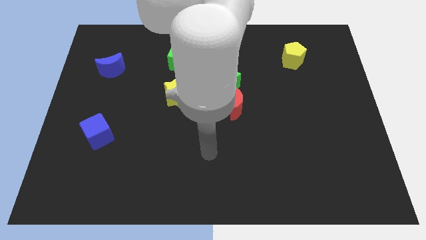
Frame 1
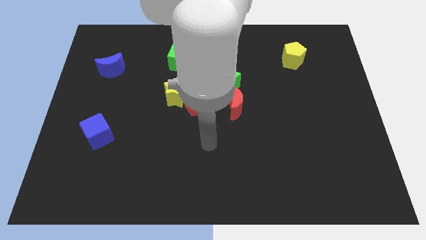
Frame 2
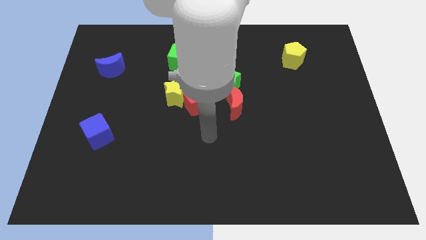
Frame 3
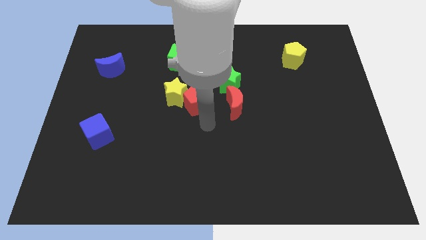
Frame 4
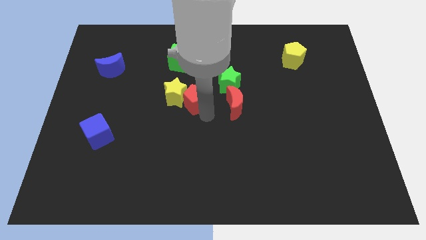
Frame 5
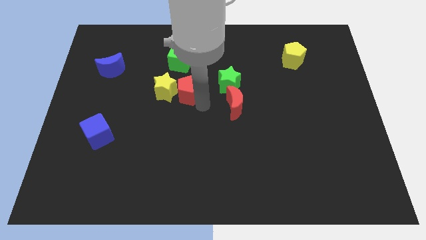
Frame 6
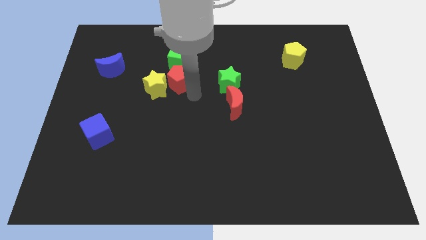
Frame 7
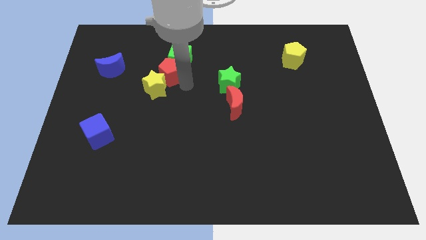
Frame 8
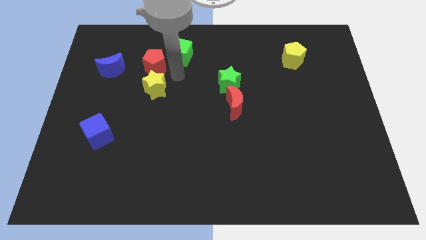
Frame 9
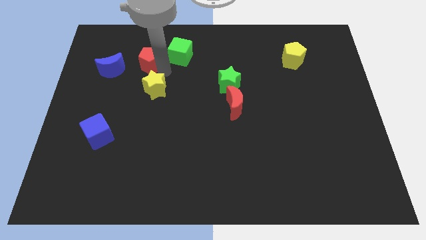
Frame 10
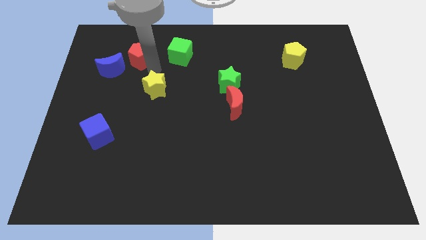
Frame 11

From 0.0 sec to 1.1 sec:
move the yellow star away from the red pentagon

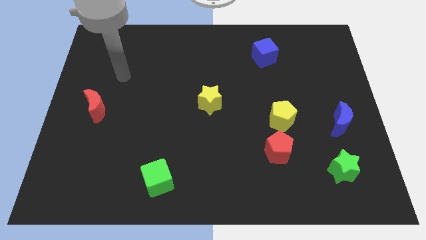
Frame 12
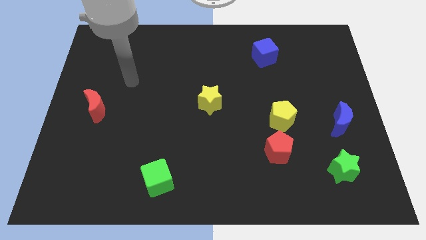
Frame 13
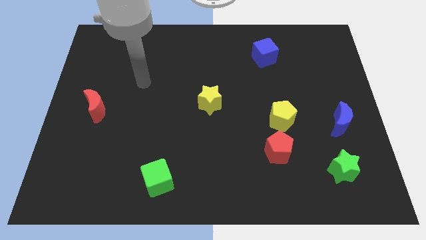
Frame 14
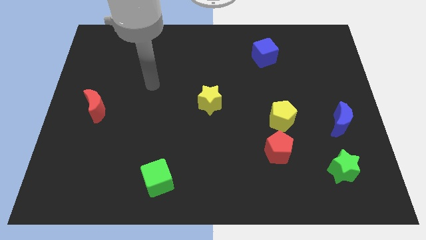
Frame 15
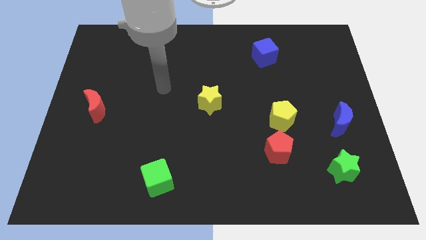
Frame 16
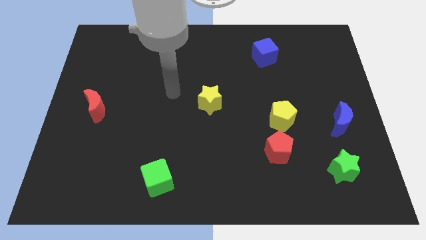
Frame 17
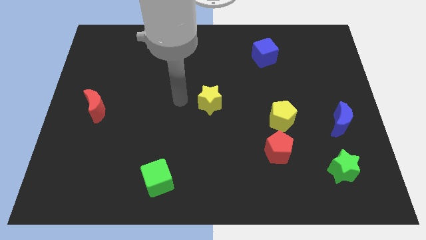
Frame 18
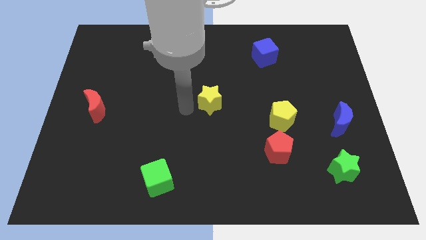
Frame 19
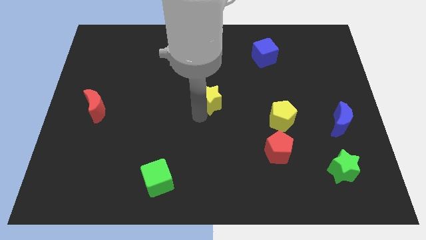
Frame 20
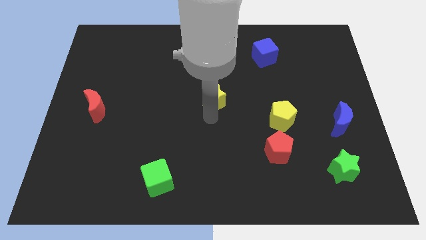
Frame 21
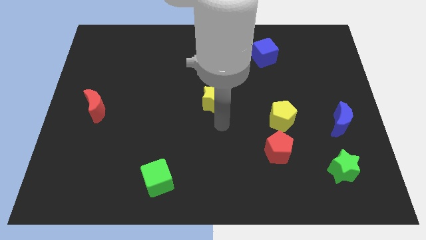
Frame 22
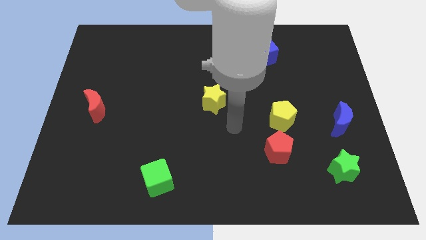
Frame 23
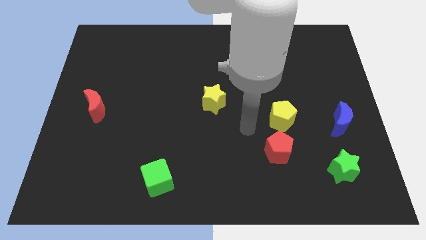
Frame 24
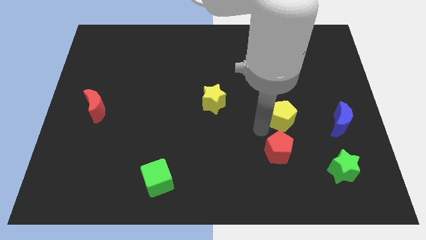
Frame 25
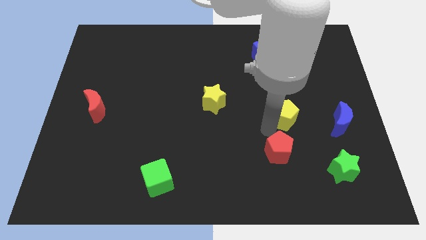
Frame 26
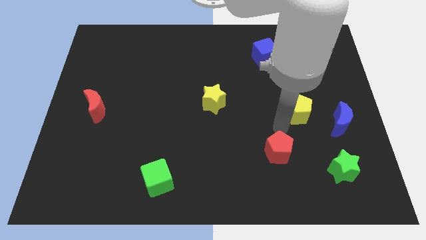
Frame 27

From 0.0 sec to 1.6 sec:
move the red pentagon away from the yellow pentagon

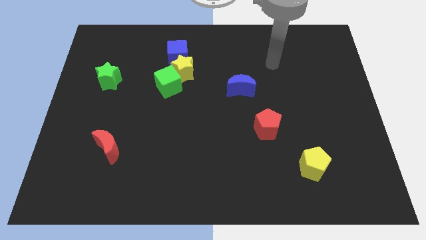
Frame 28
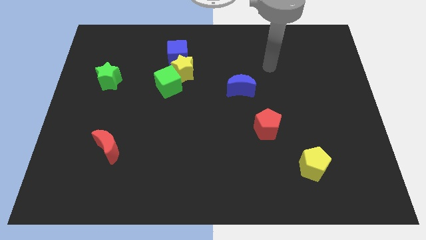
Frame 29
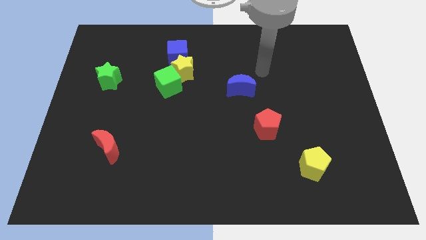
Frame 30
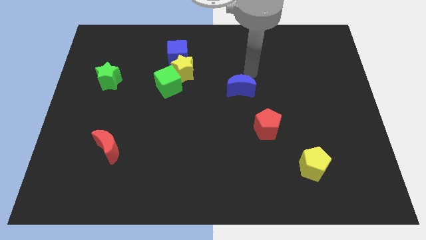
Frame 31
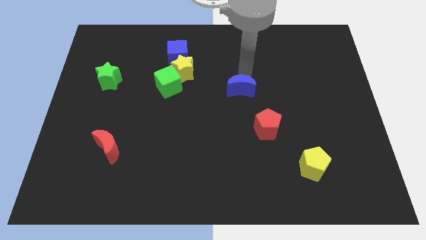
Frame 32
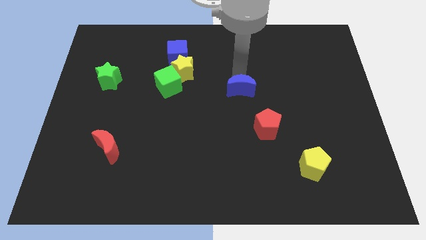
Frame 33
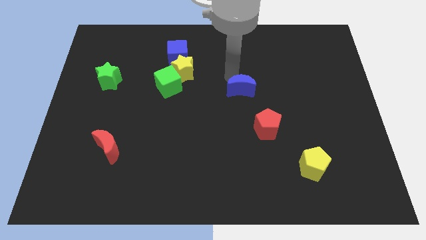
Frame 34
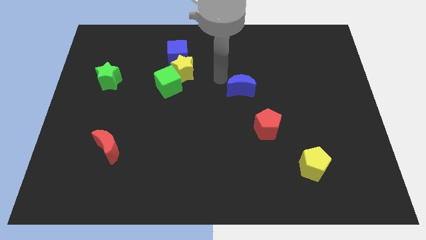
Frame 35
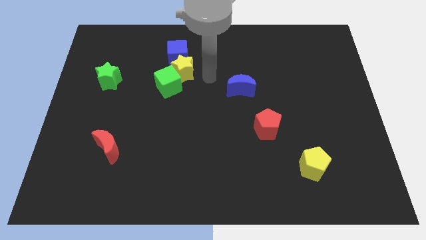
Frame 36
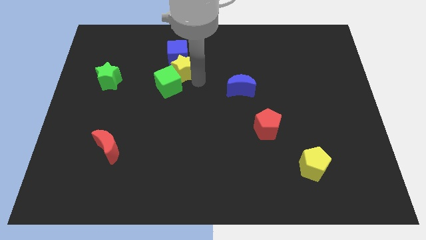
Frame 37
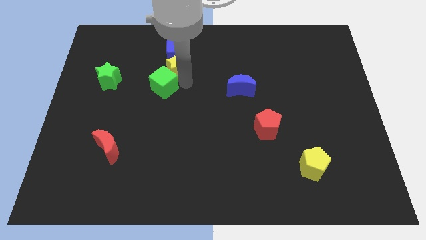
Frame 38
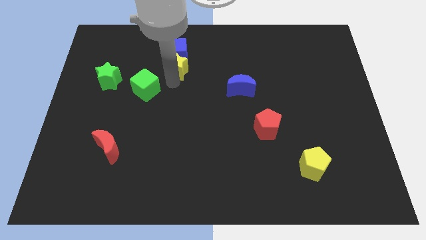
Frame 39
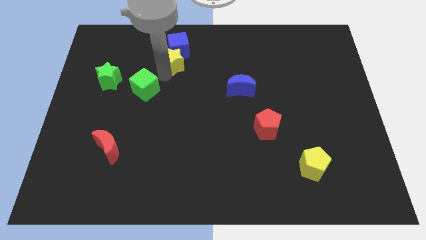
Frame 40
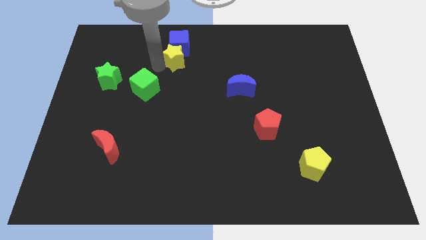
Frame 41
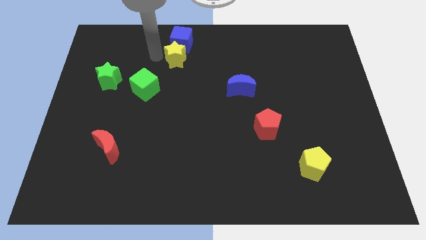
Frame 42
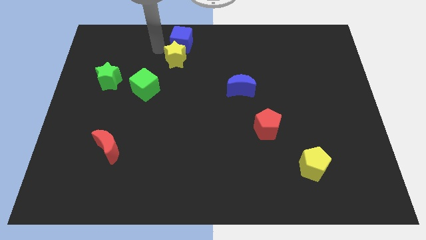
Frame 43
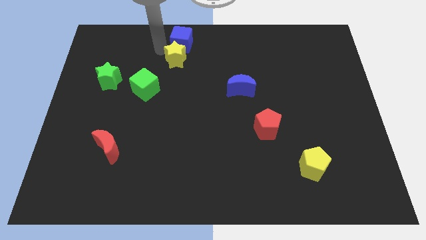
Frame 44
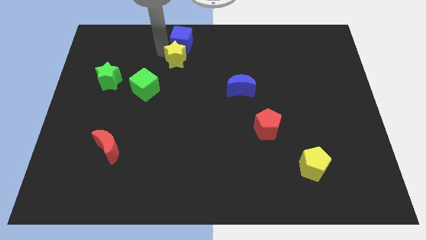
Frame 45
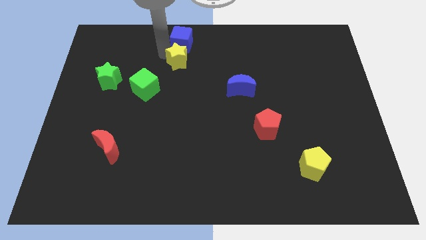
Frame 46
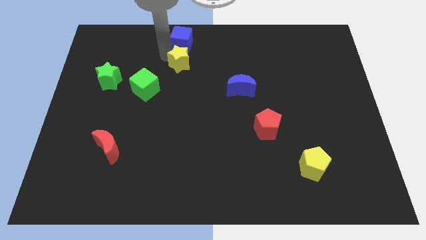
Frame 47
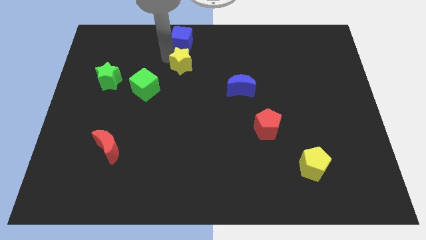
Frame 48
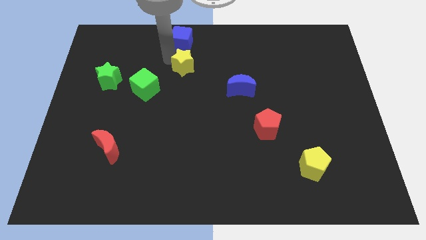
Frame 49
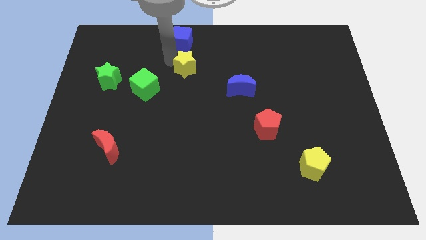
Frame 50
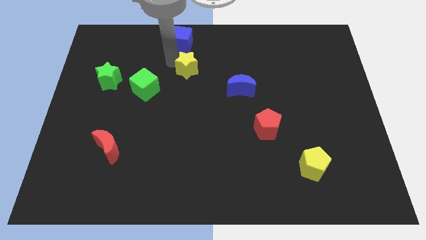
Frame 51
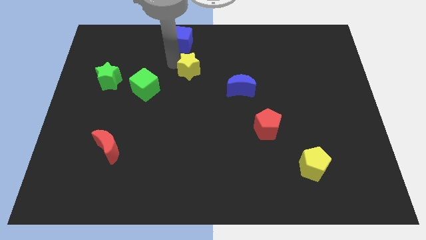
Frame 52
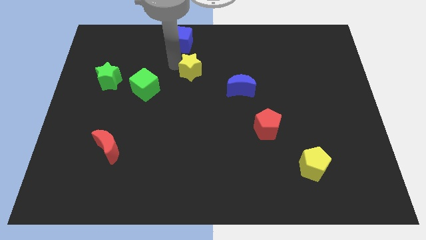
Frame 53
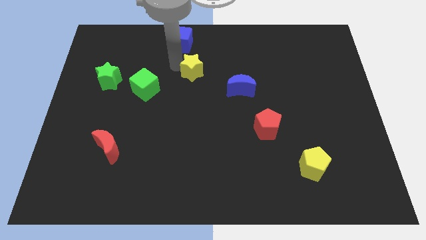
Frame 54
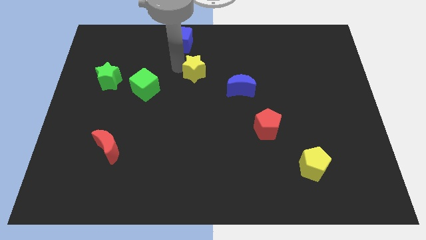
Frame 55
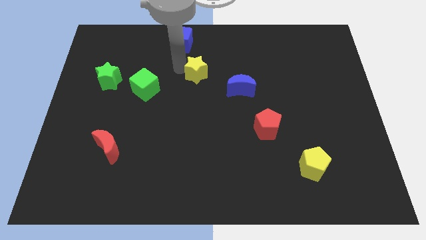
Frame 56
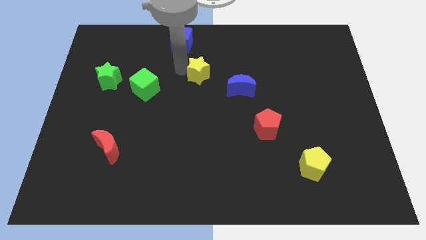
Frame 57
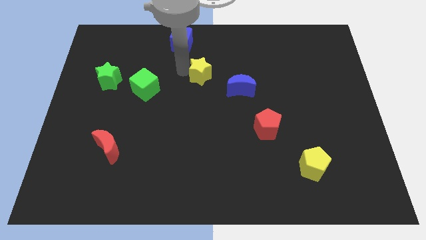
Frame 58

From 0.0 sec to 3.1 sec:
pull the yellow star apart from the blue cube and green cube

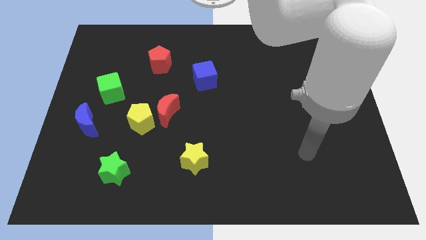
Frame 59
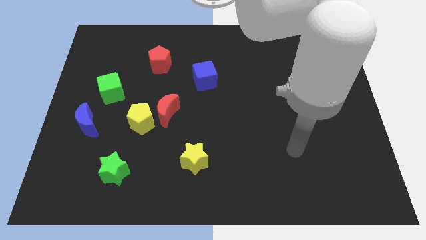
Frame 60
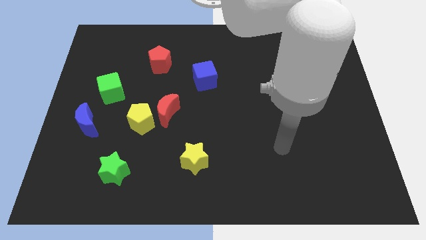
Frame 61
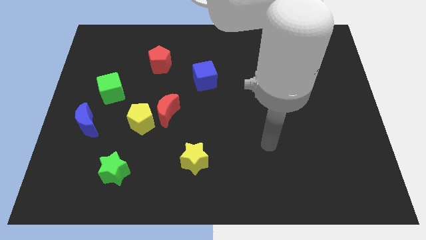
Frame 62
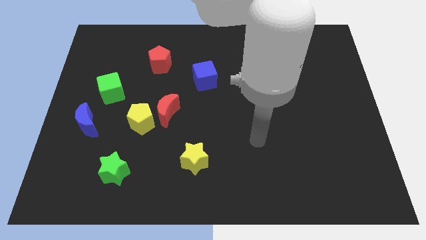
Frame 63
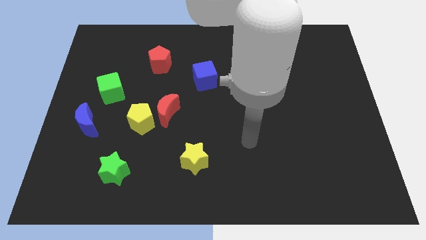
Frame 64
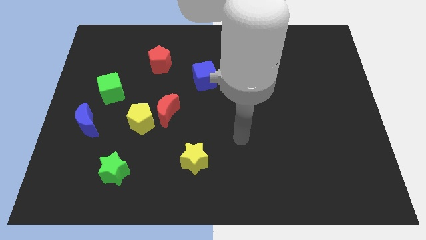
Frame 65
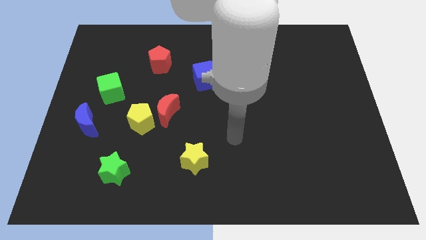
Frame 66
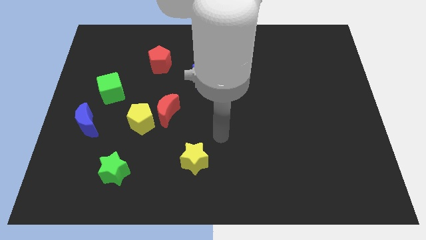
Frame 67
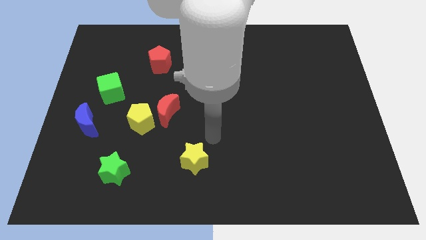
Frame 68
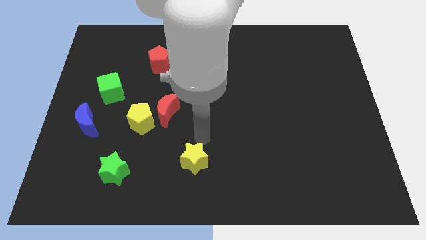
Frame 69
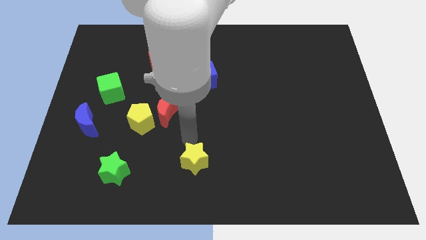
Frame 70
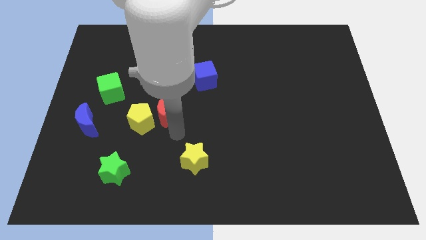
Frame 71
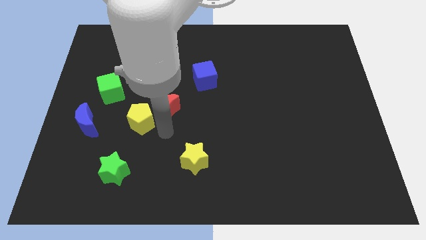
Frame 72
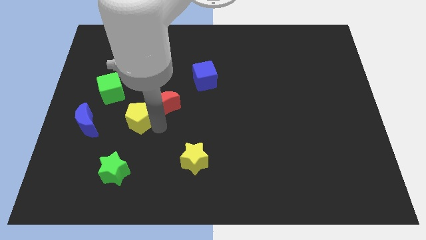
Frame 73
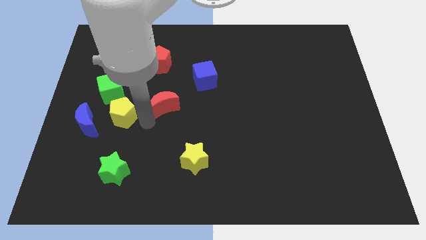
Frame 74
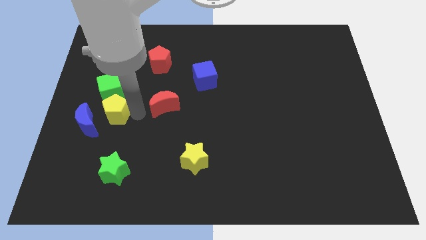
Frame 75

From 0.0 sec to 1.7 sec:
pull the red moon apart from the yellow pentagon

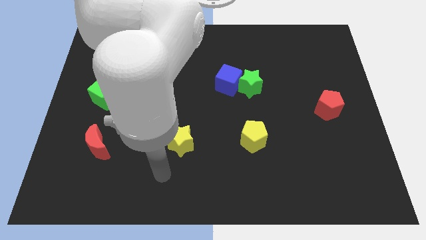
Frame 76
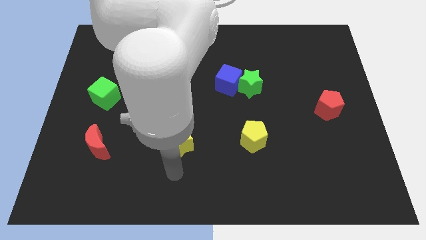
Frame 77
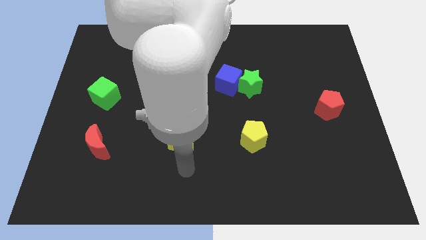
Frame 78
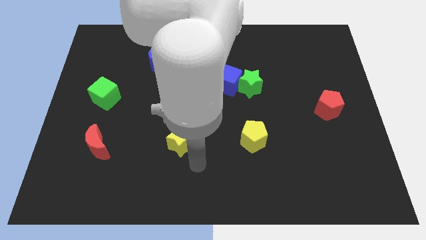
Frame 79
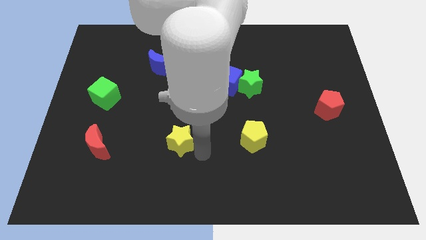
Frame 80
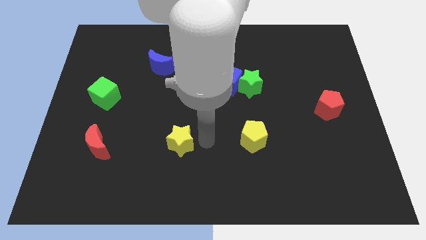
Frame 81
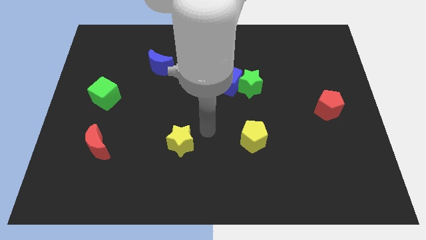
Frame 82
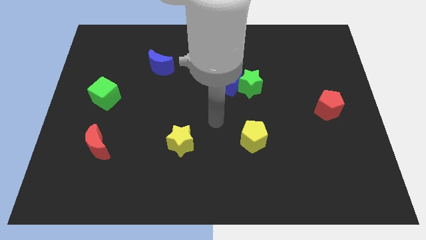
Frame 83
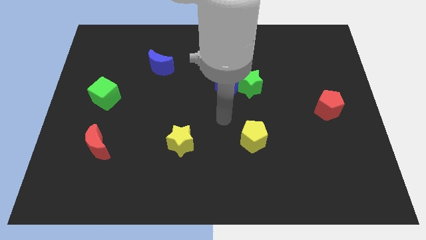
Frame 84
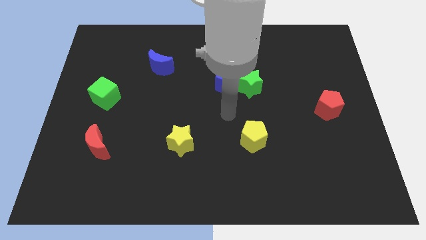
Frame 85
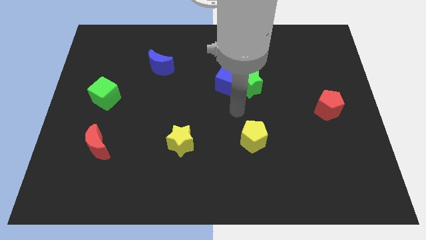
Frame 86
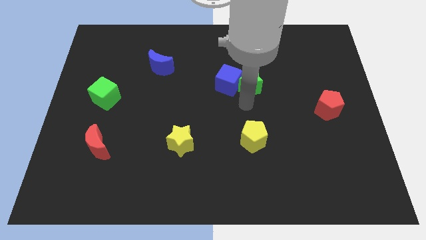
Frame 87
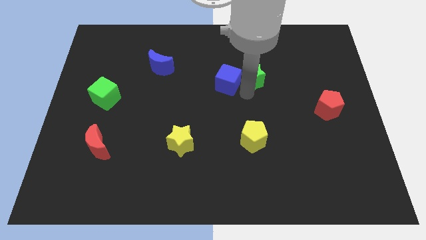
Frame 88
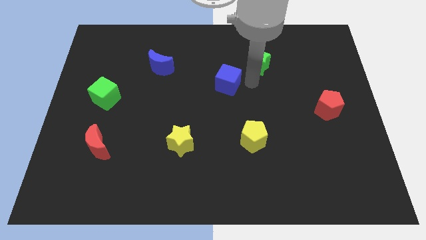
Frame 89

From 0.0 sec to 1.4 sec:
separate the blue cube from the green star

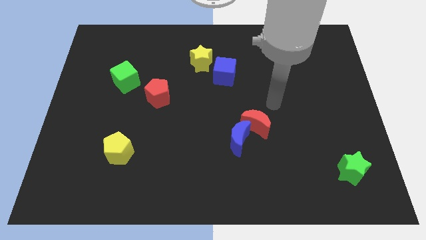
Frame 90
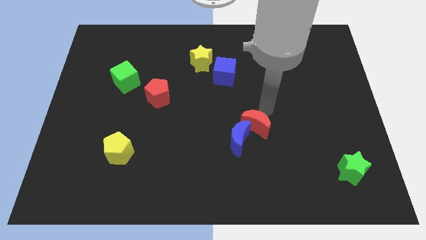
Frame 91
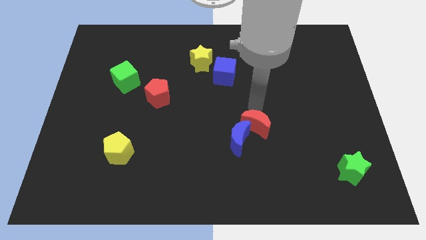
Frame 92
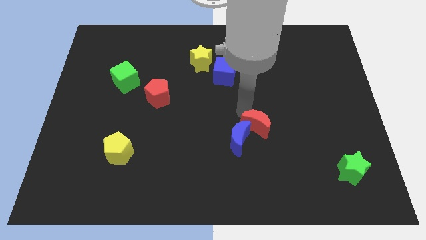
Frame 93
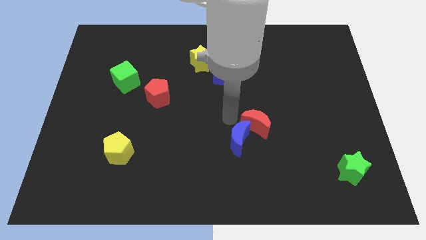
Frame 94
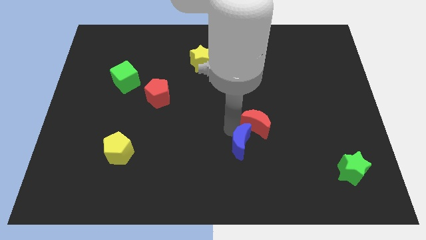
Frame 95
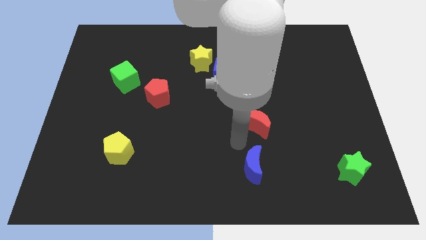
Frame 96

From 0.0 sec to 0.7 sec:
pull the red moon apart from the blue moon
